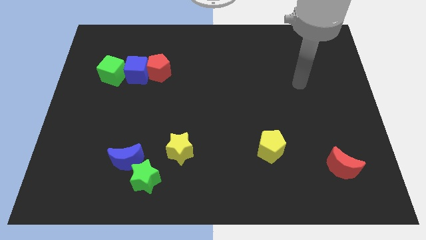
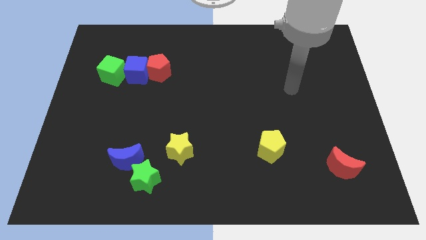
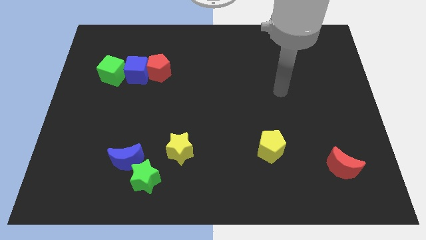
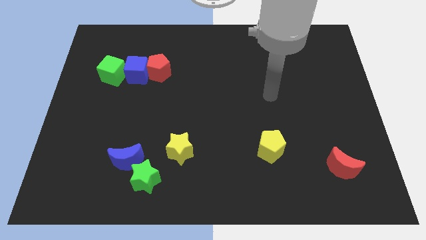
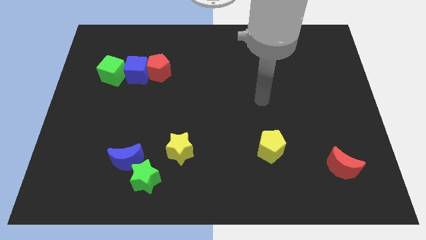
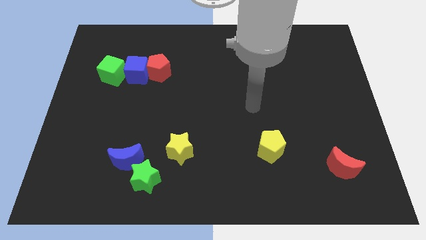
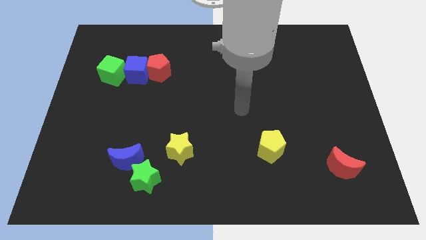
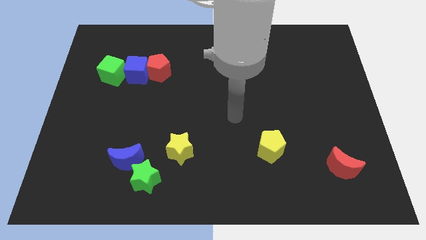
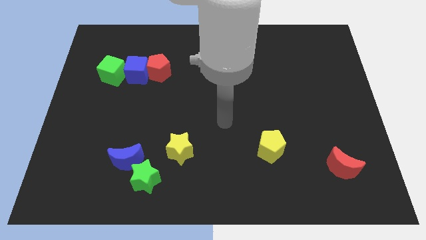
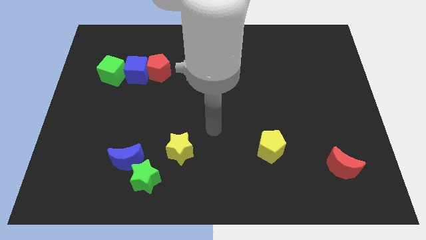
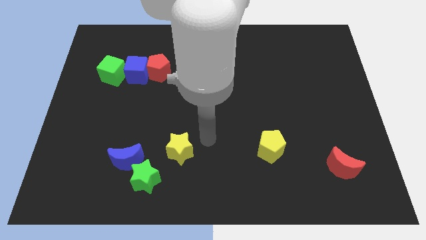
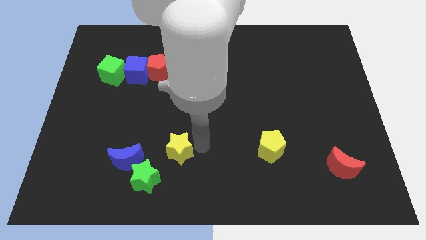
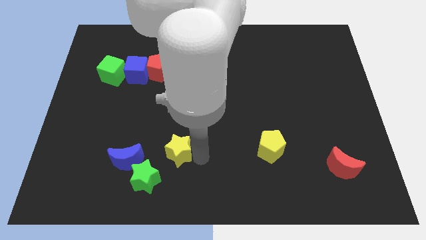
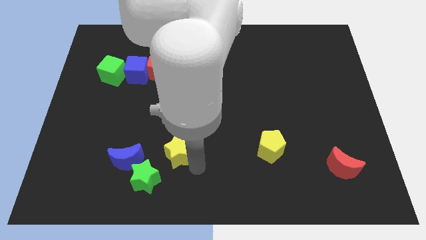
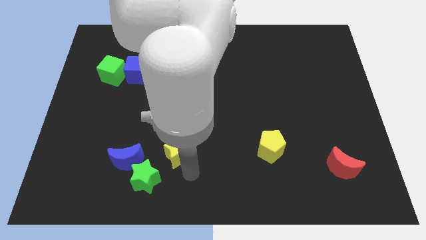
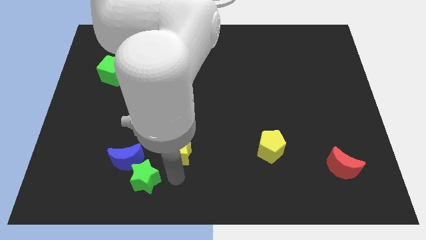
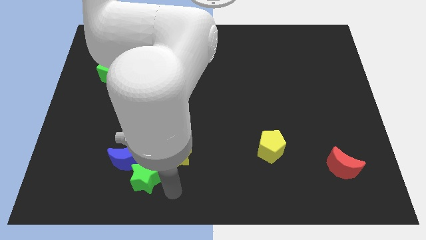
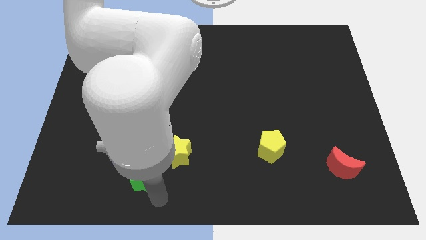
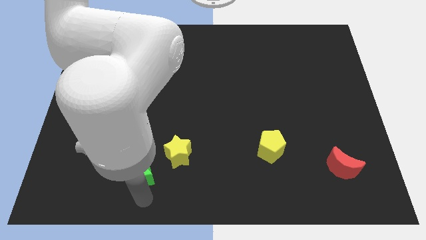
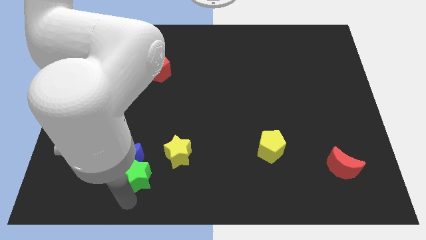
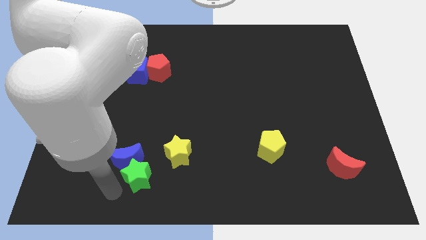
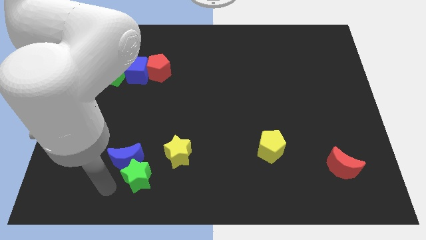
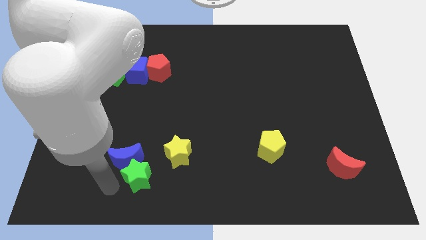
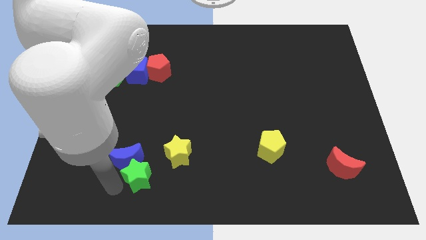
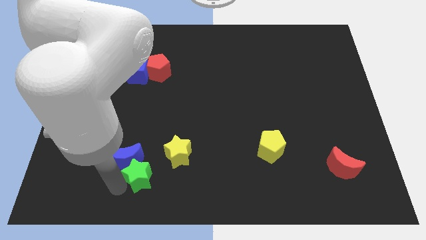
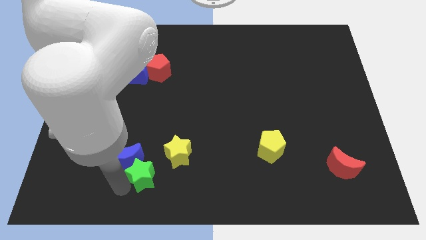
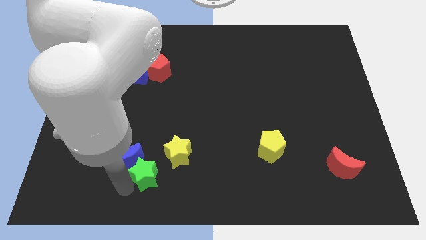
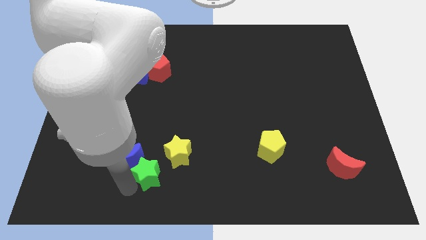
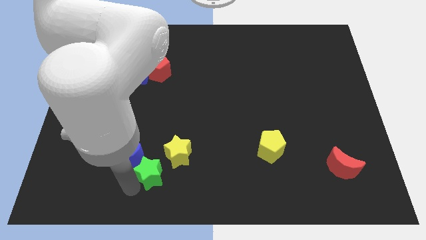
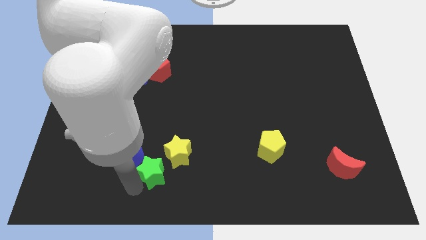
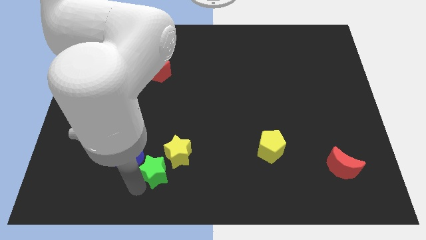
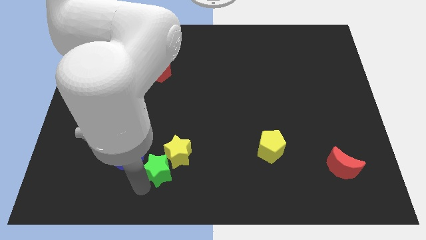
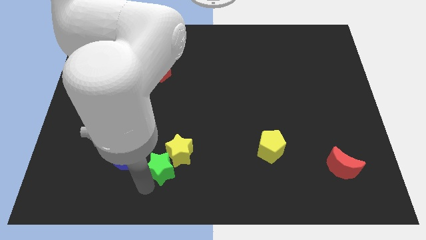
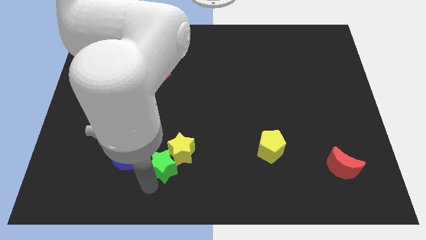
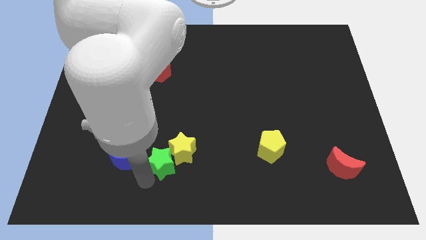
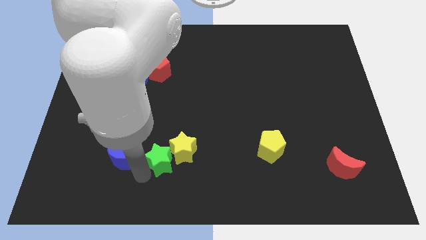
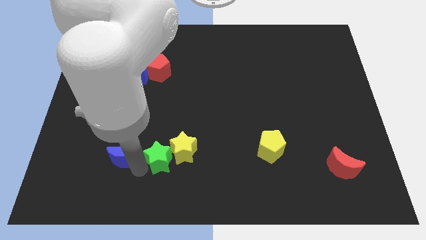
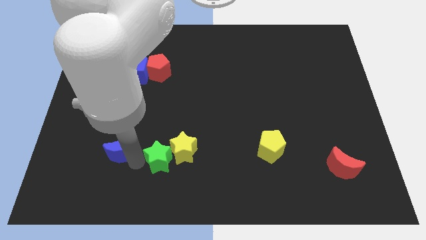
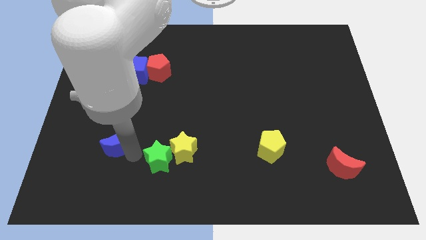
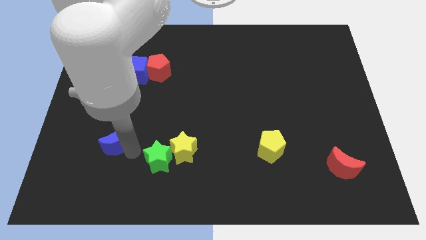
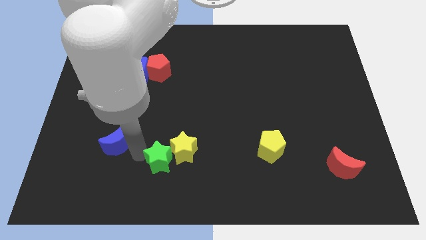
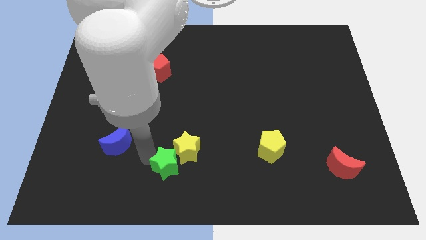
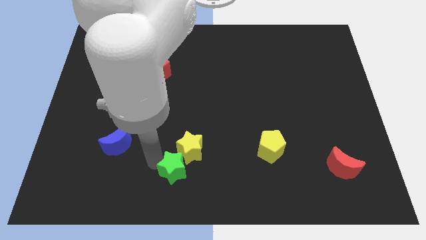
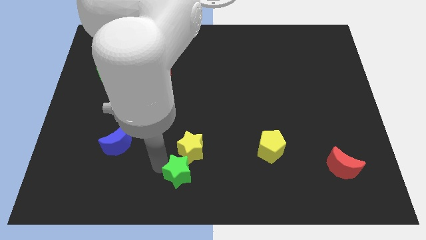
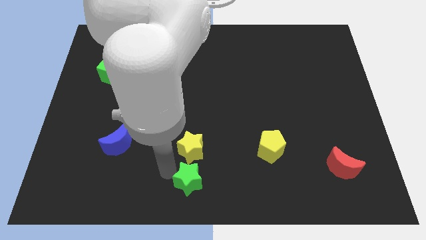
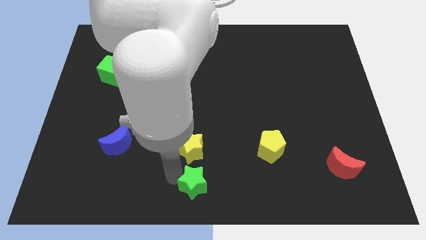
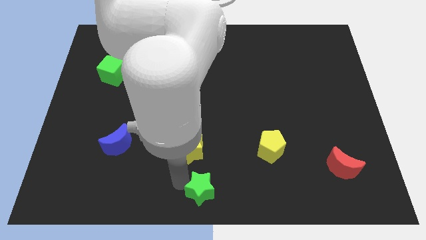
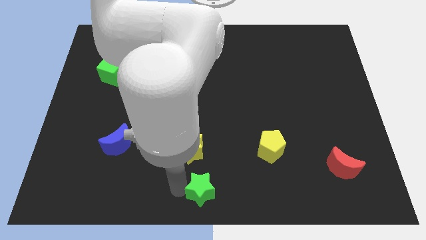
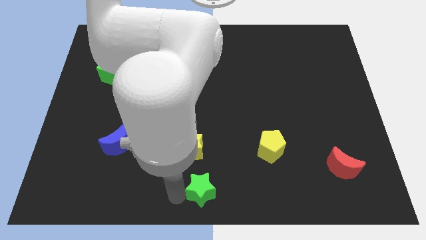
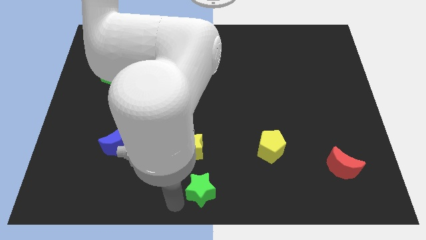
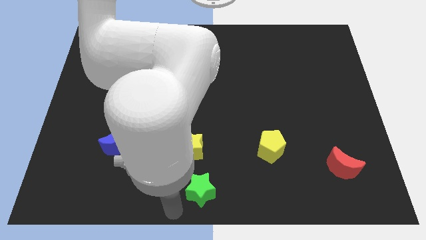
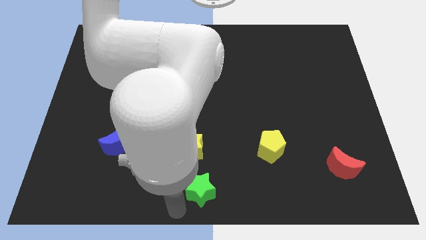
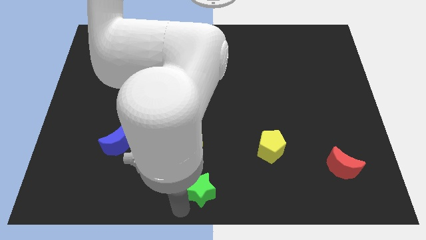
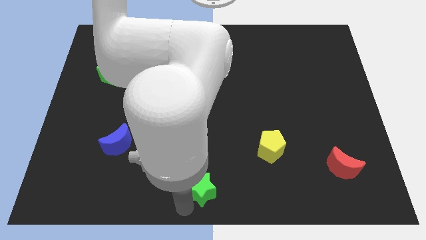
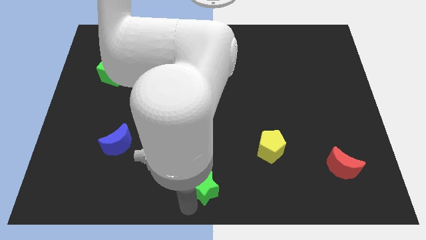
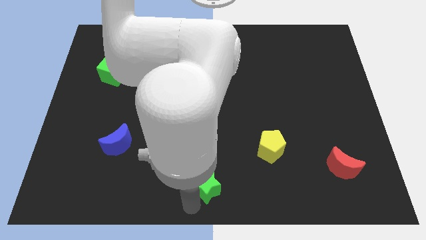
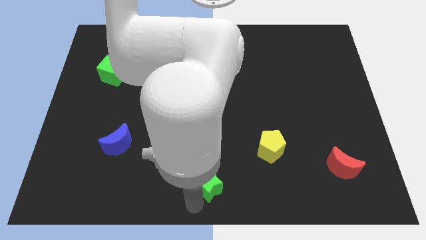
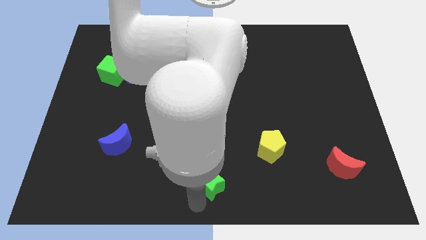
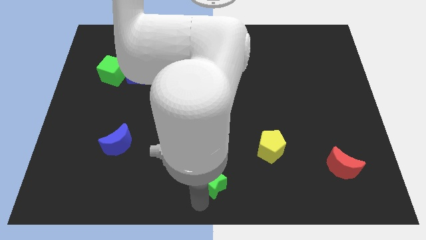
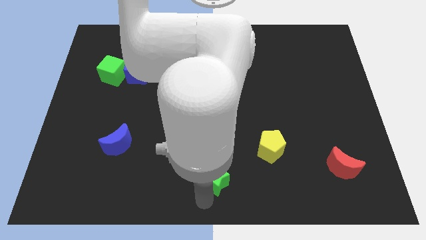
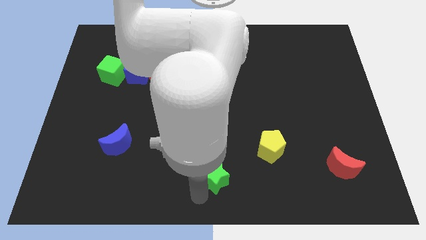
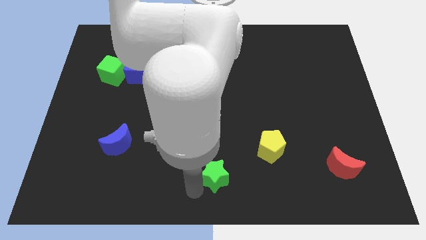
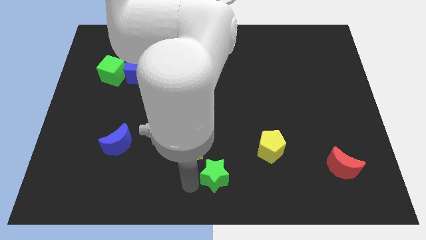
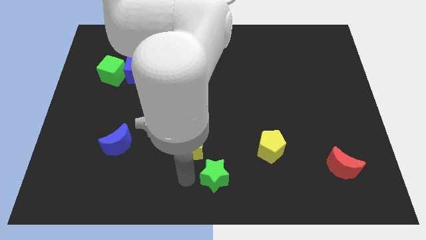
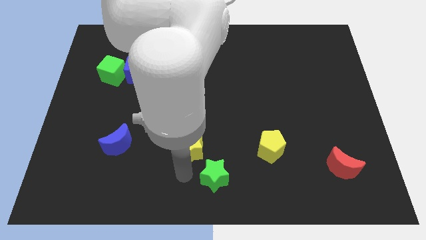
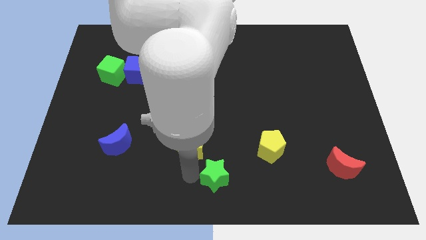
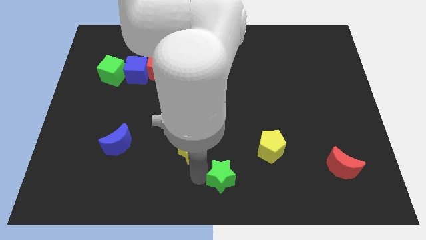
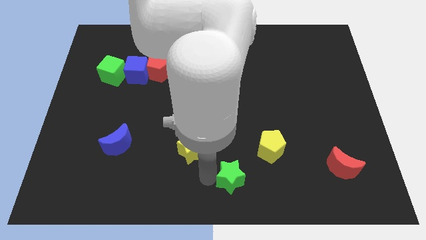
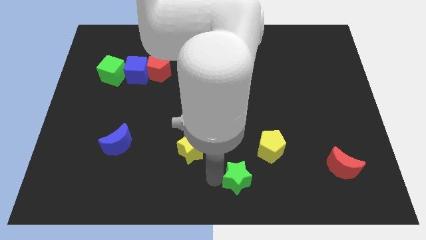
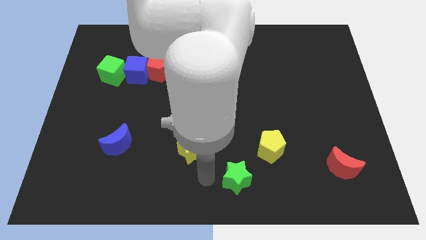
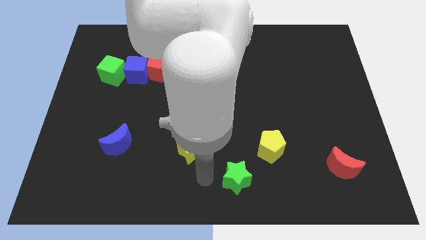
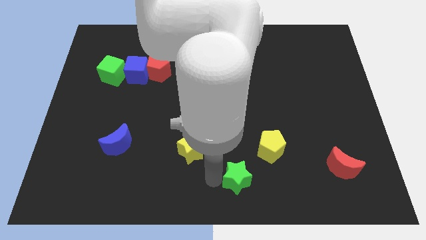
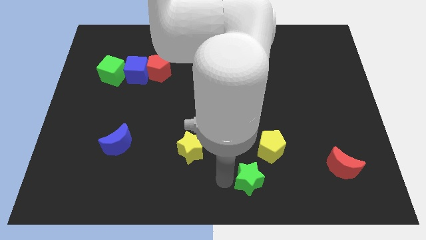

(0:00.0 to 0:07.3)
push the green star to the right

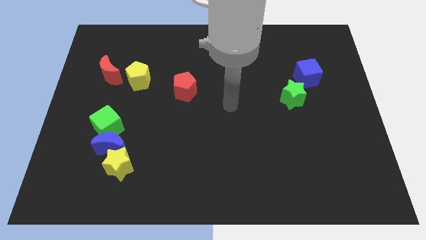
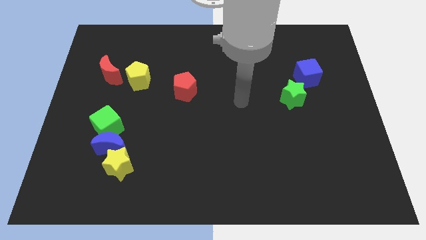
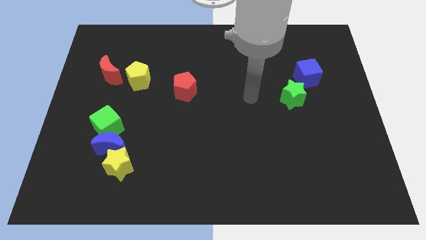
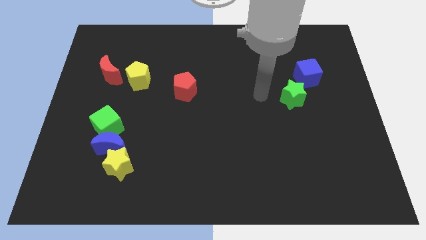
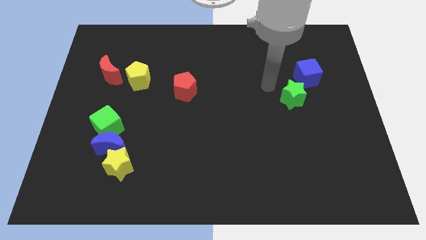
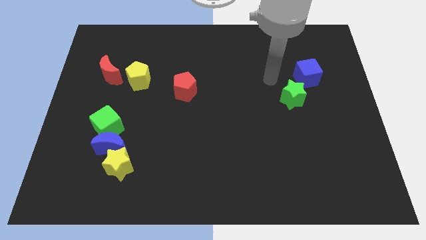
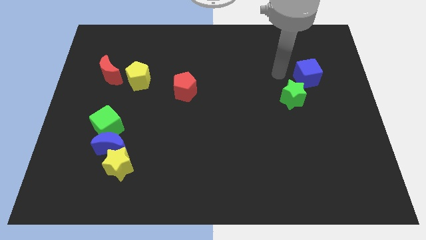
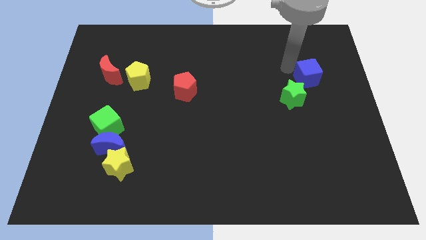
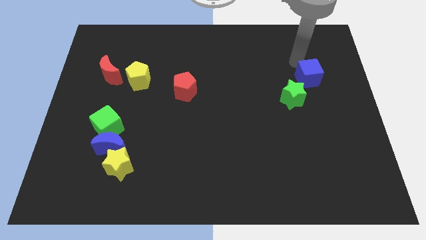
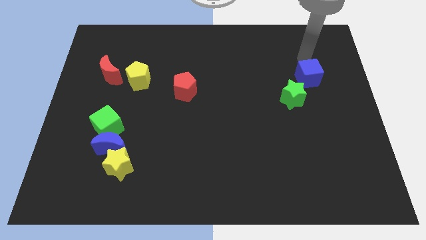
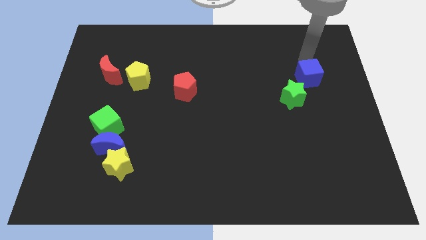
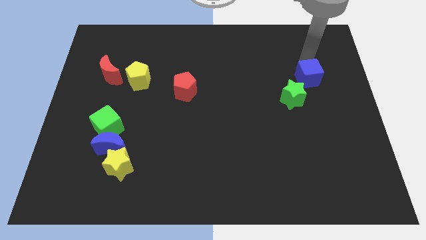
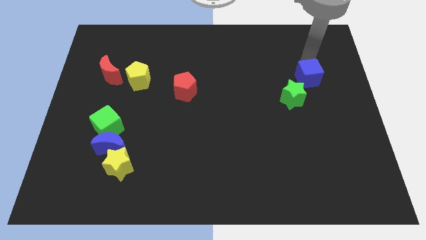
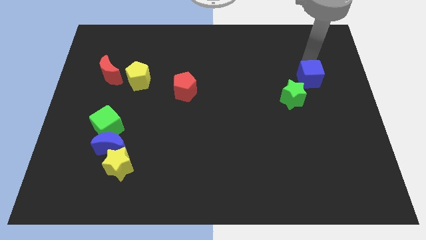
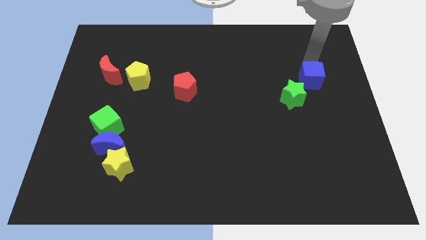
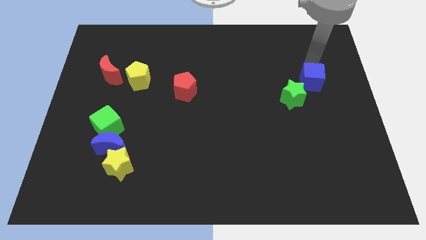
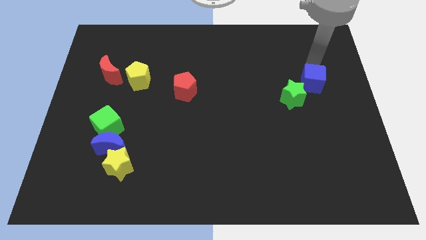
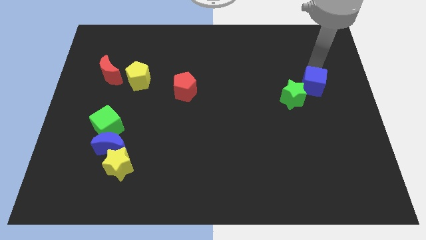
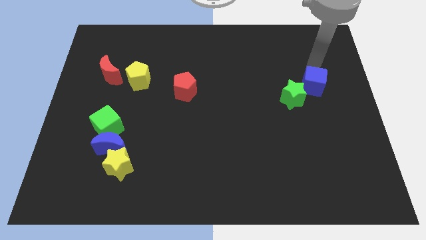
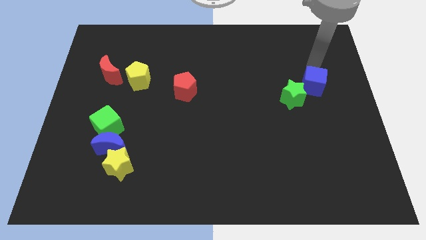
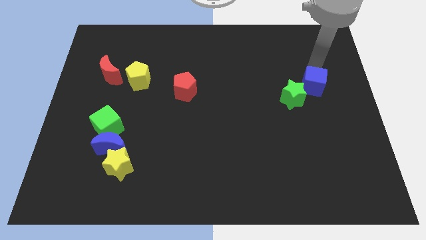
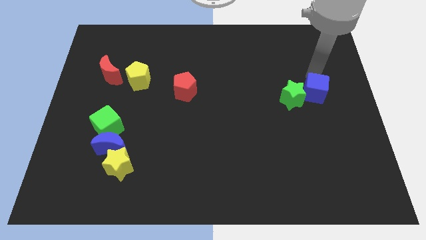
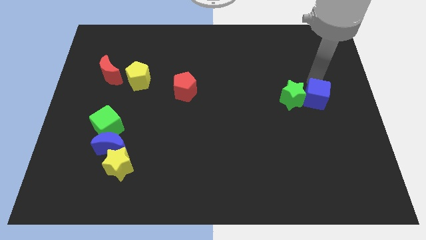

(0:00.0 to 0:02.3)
slightly push the blue cube down
